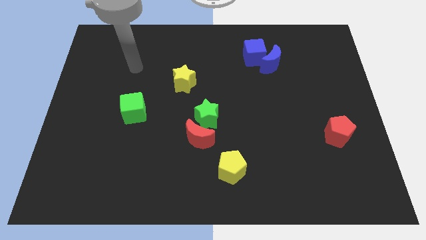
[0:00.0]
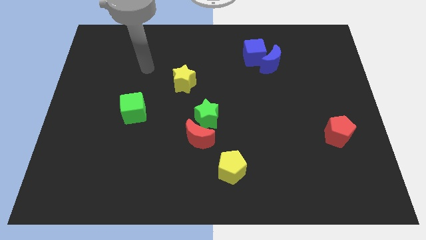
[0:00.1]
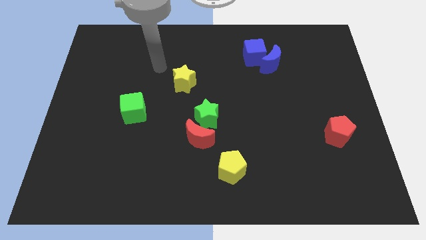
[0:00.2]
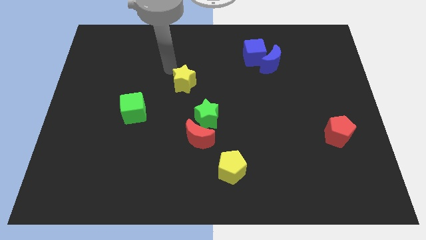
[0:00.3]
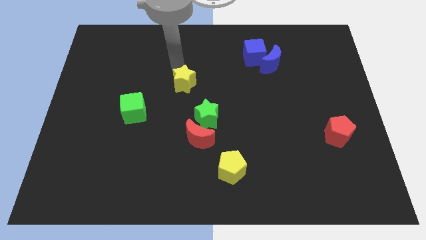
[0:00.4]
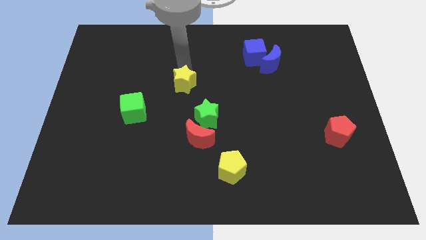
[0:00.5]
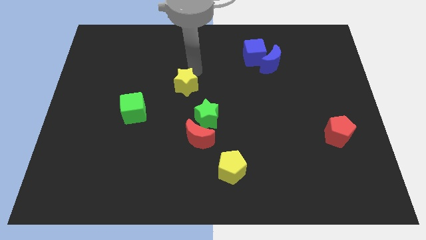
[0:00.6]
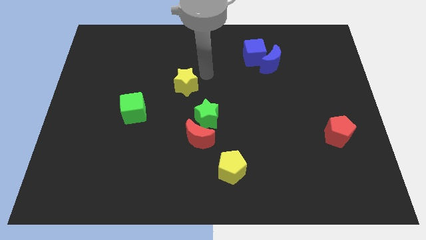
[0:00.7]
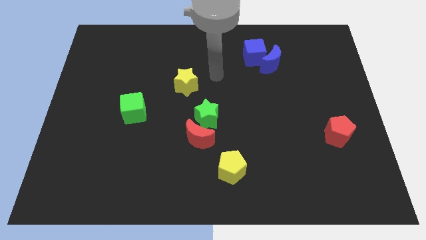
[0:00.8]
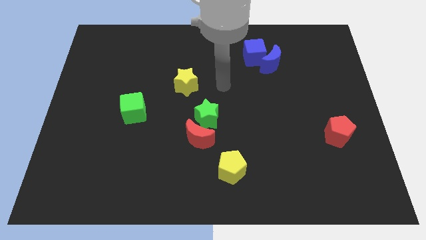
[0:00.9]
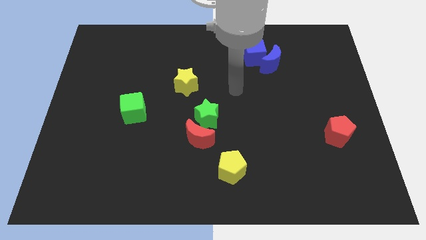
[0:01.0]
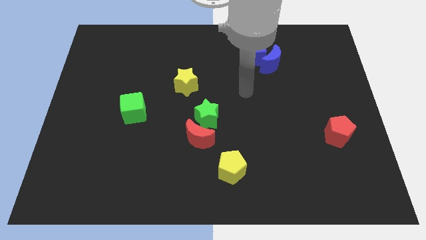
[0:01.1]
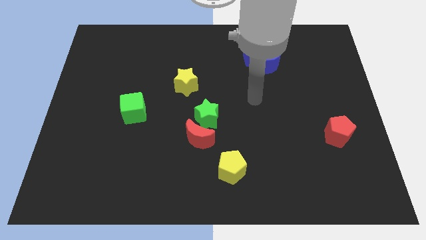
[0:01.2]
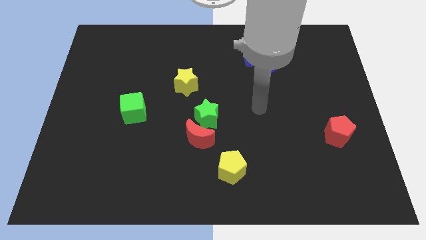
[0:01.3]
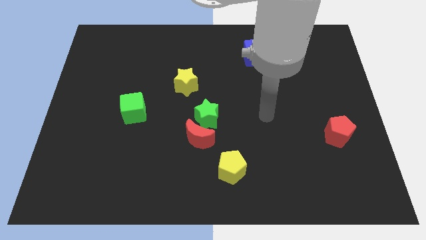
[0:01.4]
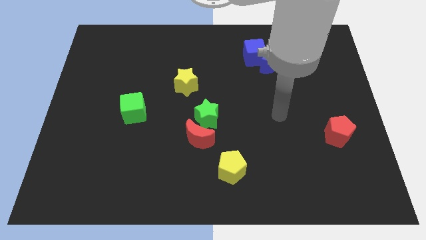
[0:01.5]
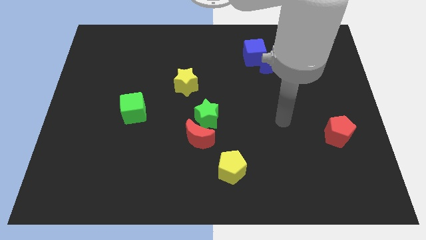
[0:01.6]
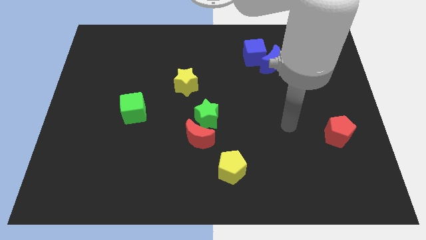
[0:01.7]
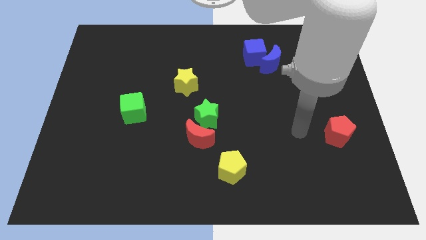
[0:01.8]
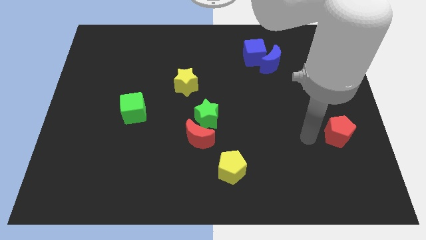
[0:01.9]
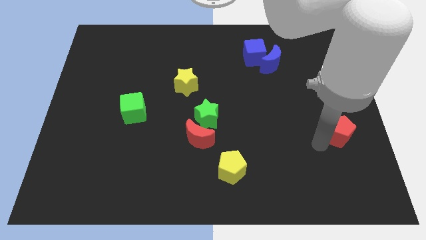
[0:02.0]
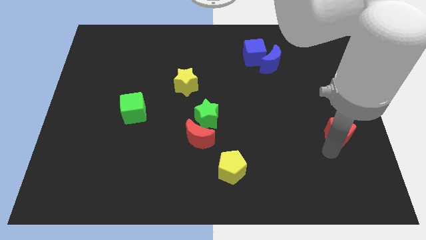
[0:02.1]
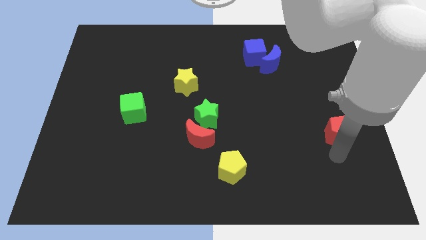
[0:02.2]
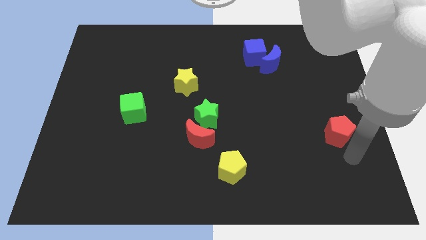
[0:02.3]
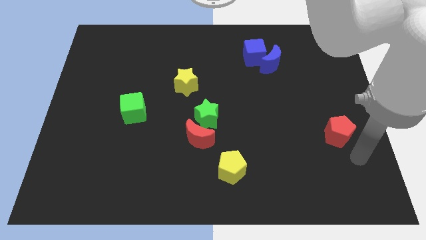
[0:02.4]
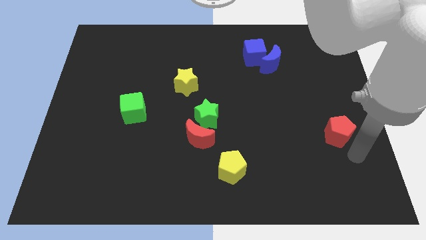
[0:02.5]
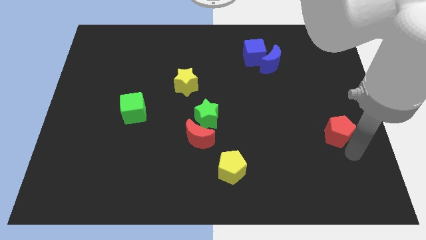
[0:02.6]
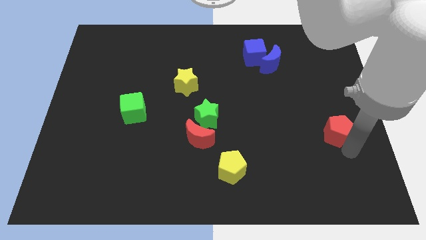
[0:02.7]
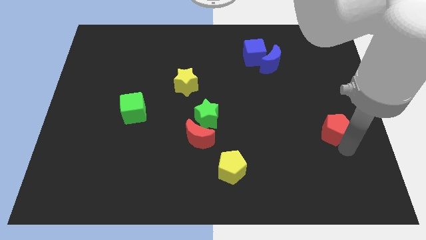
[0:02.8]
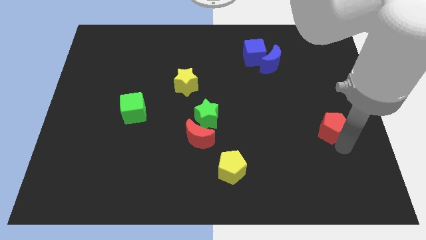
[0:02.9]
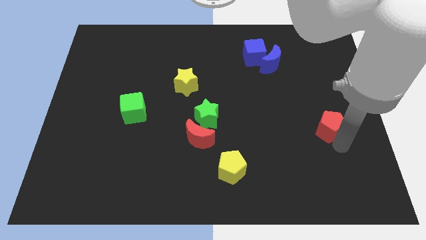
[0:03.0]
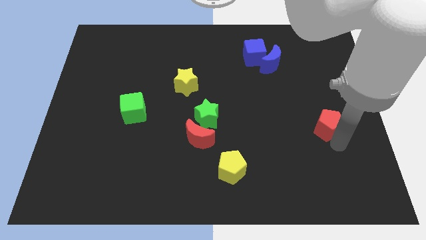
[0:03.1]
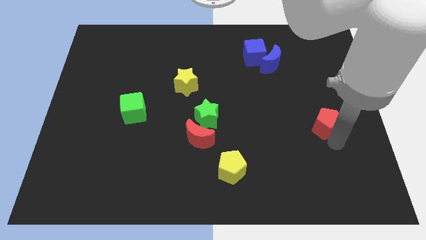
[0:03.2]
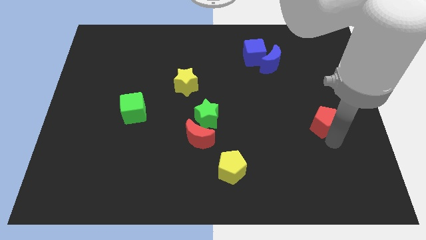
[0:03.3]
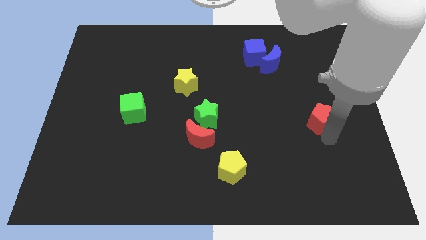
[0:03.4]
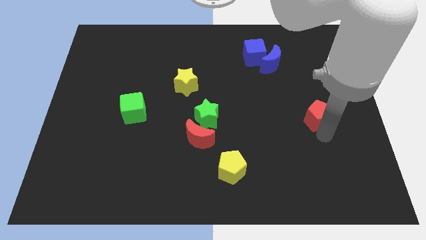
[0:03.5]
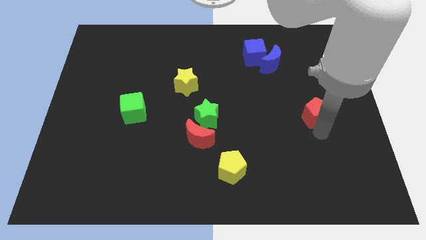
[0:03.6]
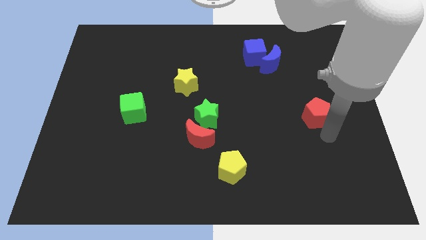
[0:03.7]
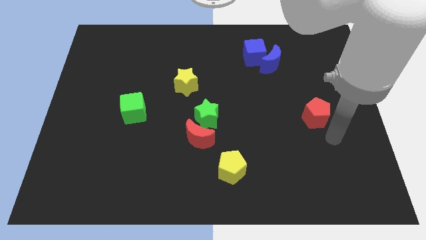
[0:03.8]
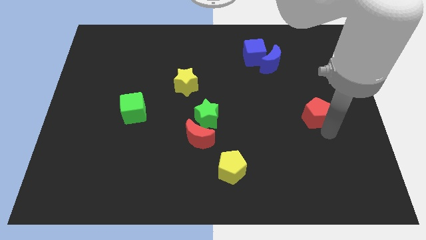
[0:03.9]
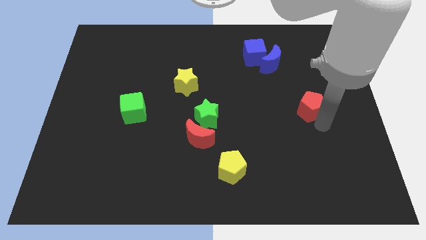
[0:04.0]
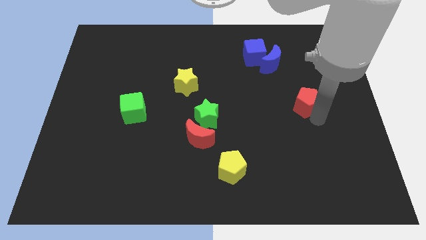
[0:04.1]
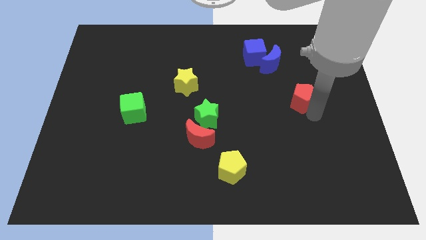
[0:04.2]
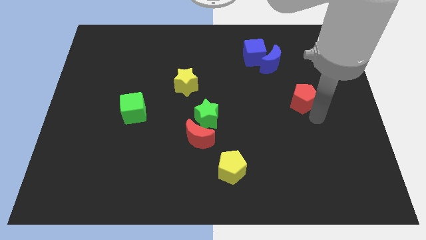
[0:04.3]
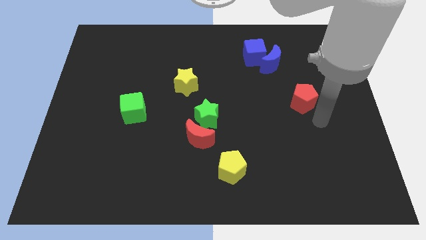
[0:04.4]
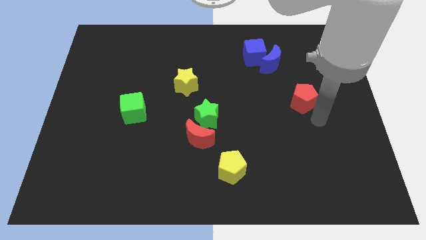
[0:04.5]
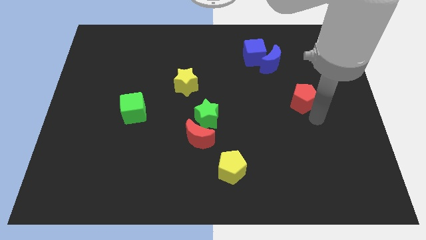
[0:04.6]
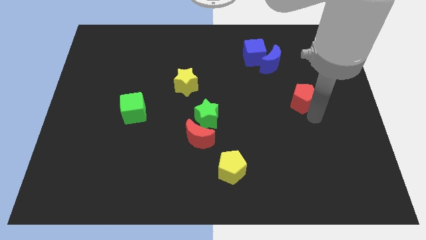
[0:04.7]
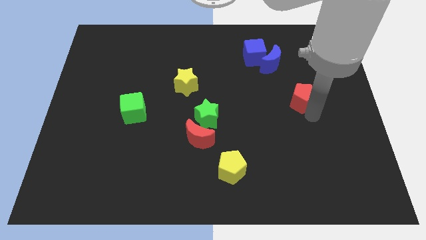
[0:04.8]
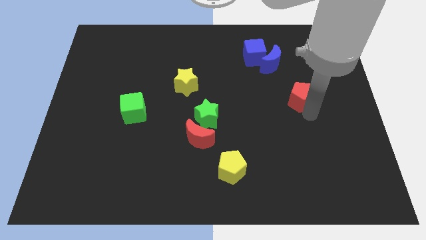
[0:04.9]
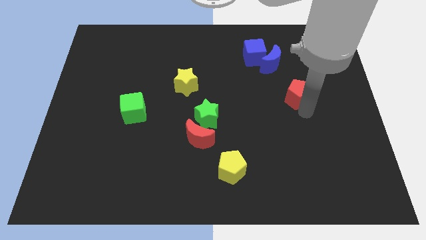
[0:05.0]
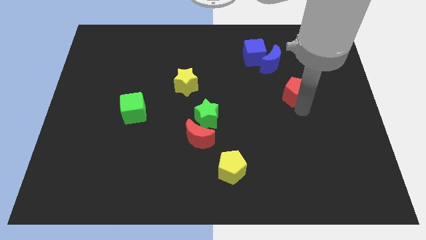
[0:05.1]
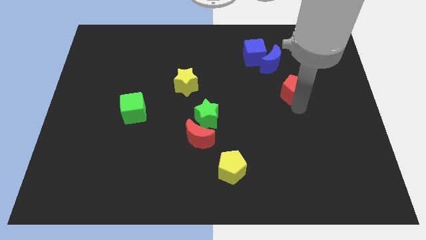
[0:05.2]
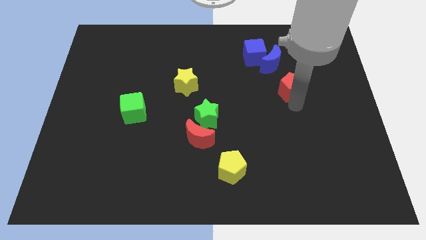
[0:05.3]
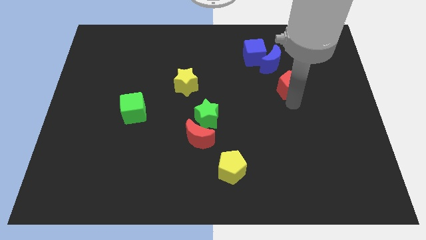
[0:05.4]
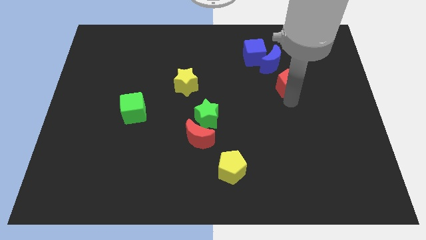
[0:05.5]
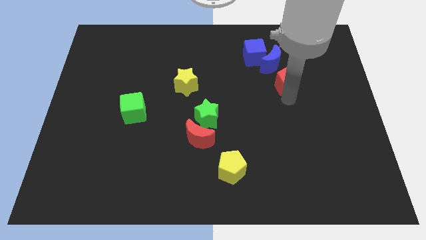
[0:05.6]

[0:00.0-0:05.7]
slide the red pentagon to the bottom right side of the blue cube

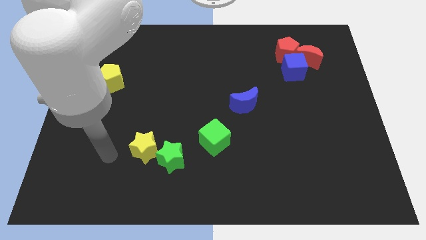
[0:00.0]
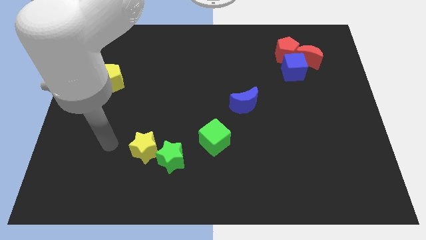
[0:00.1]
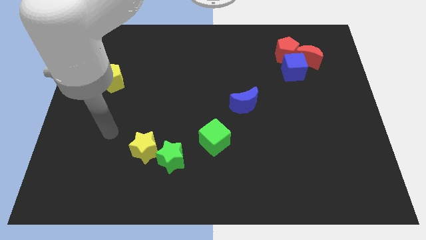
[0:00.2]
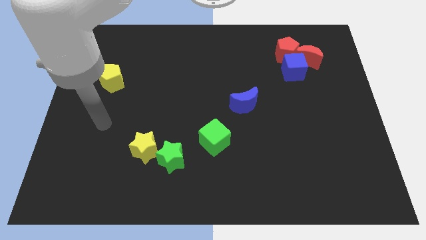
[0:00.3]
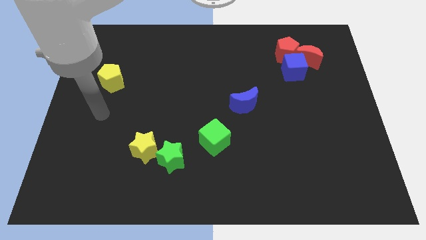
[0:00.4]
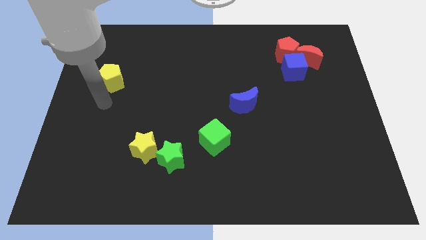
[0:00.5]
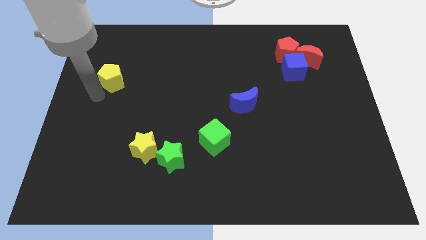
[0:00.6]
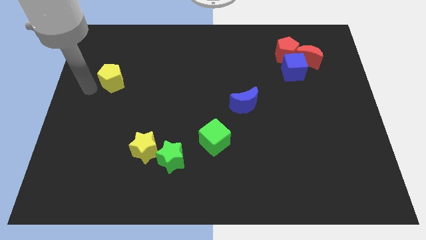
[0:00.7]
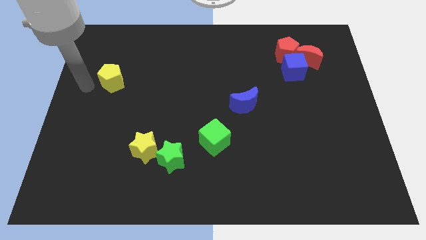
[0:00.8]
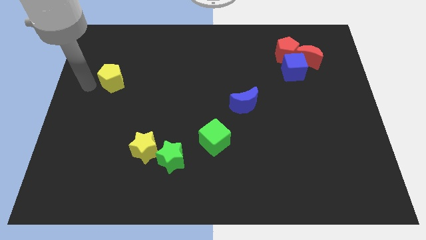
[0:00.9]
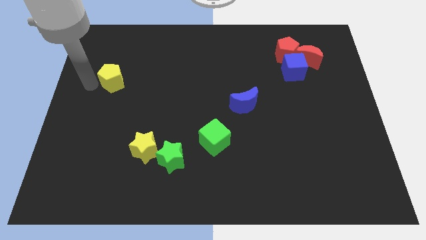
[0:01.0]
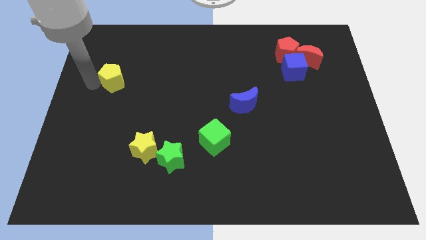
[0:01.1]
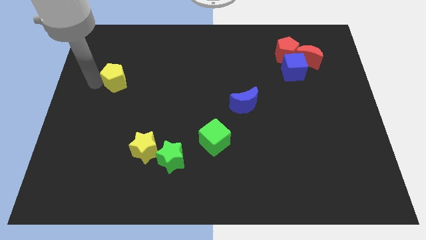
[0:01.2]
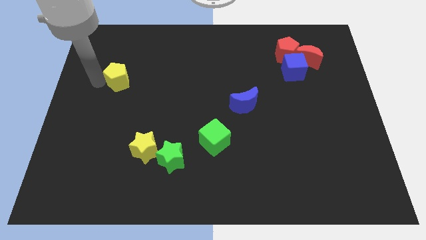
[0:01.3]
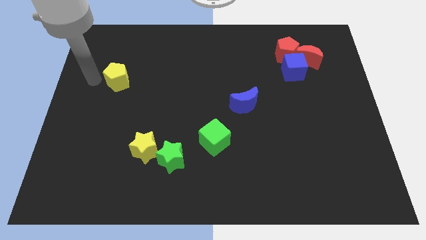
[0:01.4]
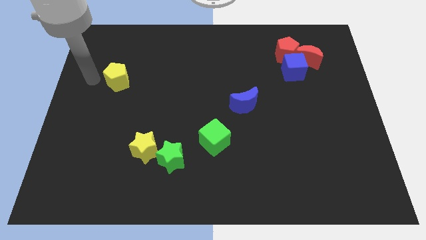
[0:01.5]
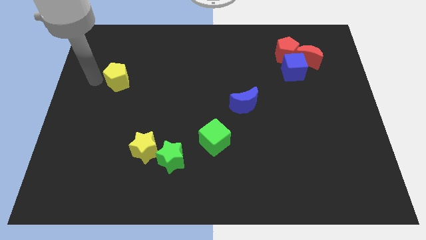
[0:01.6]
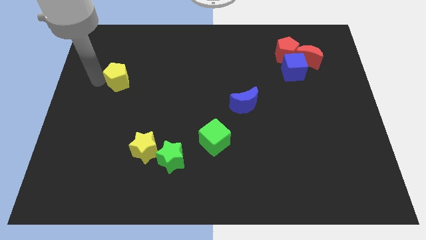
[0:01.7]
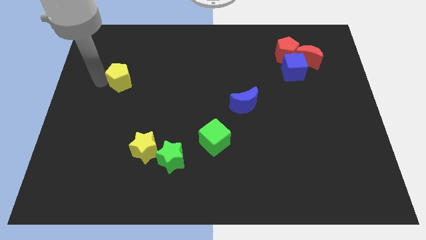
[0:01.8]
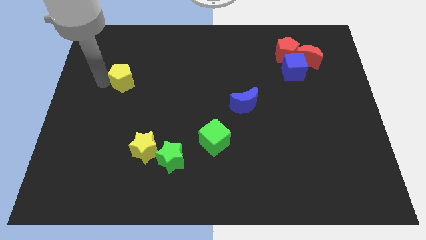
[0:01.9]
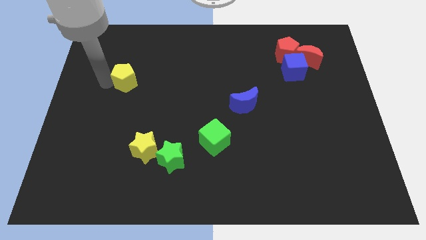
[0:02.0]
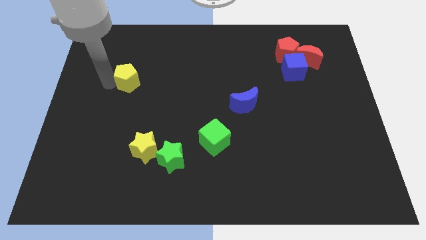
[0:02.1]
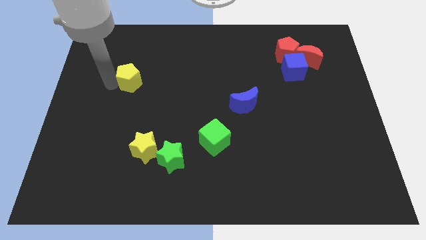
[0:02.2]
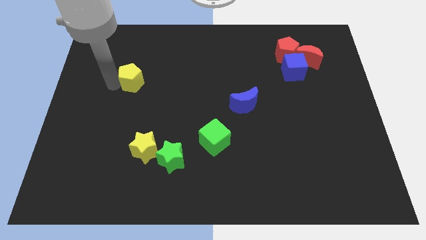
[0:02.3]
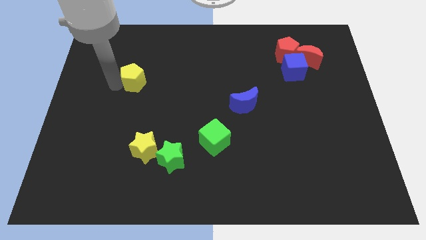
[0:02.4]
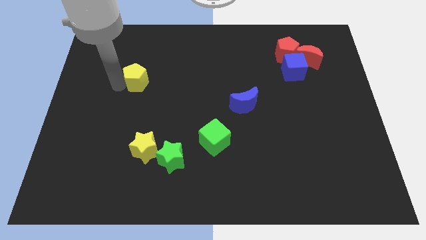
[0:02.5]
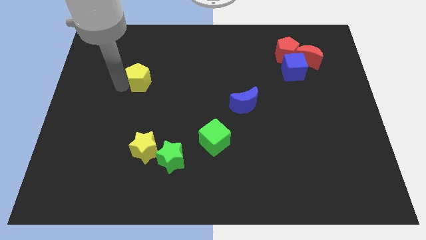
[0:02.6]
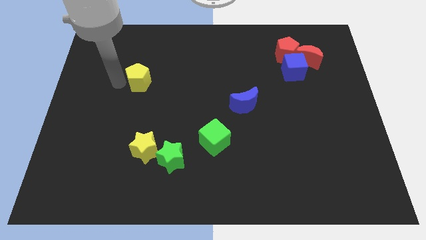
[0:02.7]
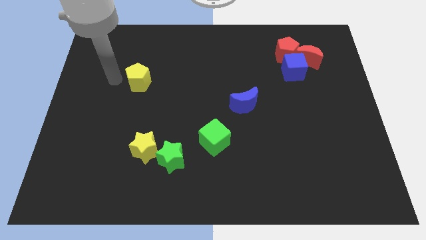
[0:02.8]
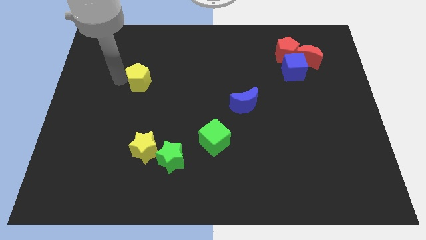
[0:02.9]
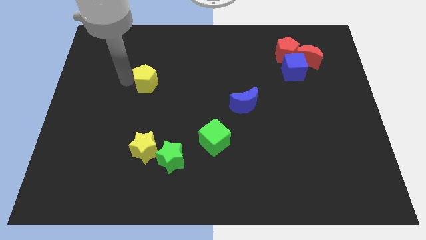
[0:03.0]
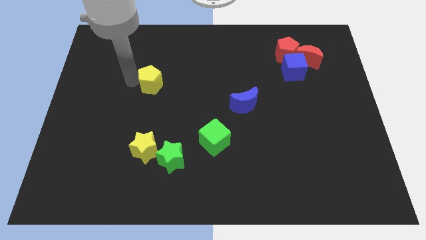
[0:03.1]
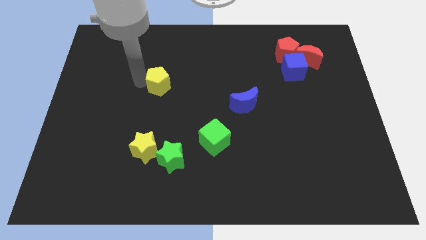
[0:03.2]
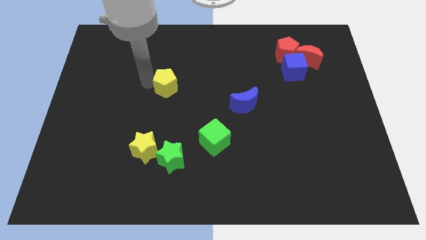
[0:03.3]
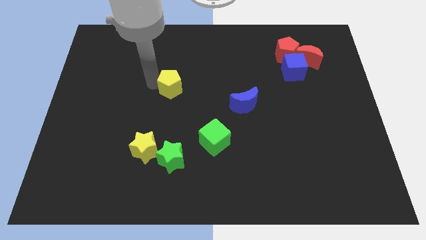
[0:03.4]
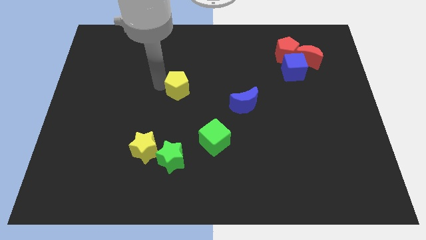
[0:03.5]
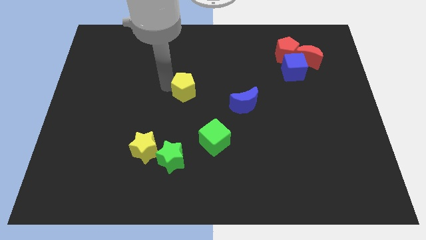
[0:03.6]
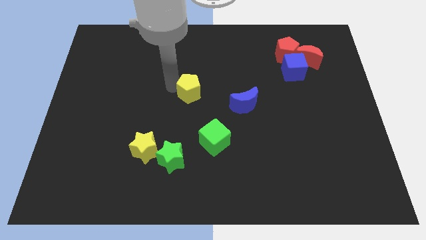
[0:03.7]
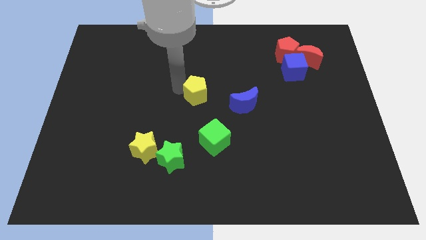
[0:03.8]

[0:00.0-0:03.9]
move the yellow pentagon to the top side of the green cube
